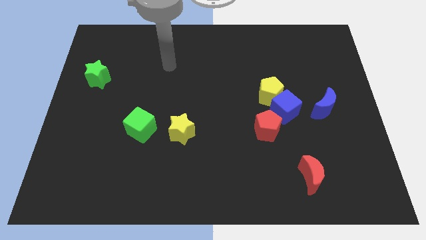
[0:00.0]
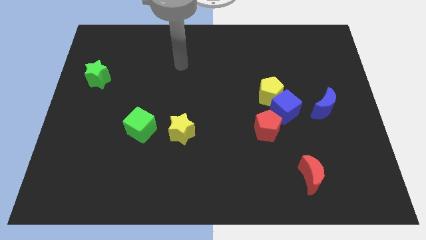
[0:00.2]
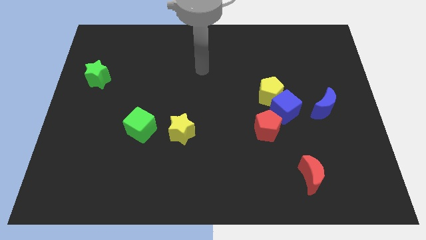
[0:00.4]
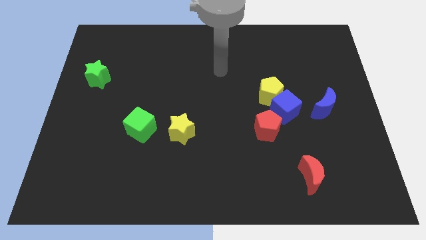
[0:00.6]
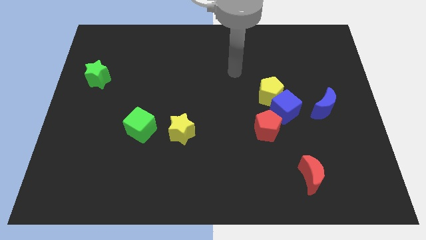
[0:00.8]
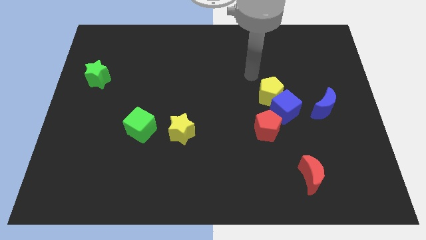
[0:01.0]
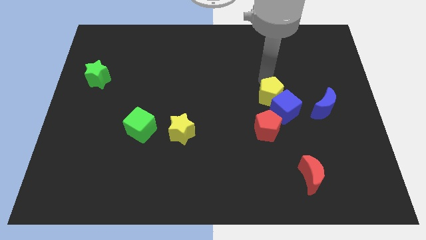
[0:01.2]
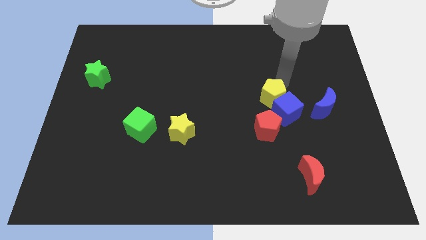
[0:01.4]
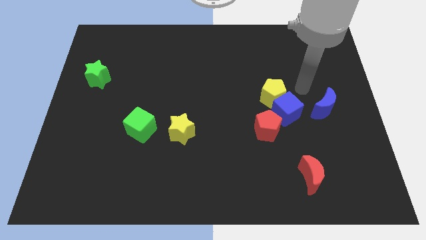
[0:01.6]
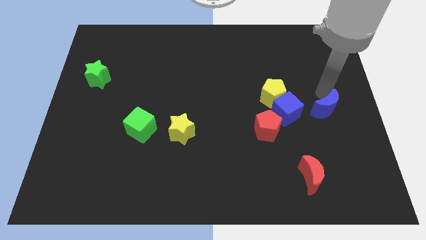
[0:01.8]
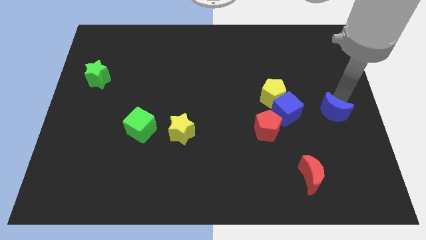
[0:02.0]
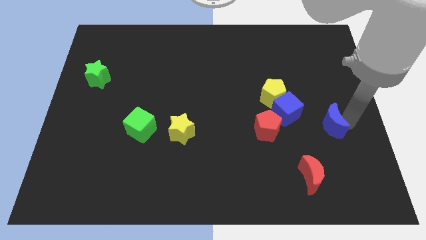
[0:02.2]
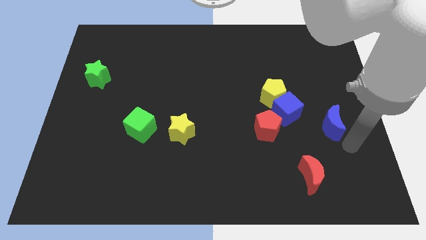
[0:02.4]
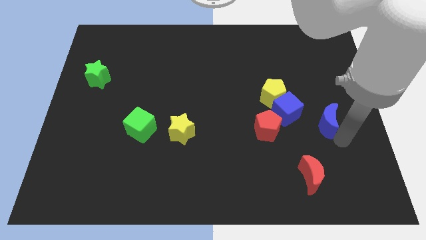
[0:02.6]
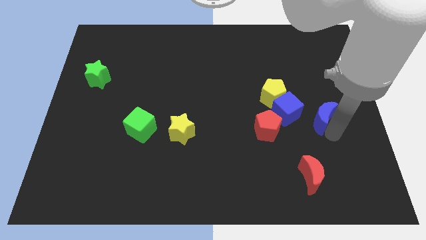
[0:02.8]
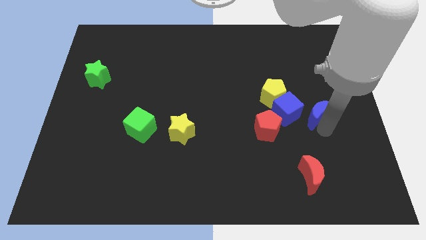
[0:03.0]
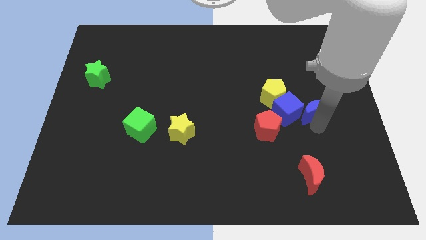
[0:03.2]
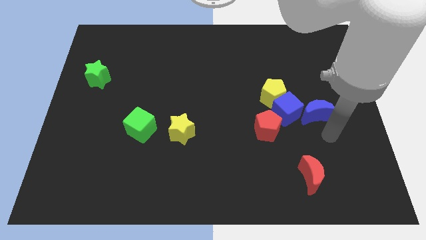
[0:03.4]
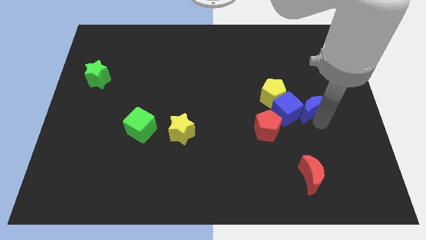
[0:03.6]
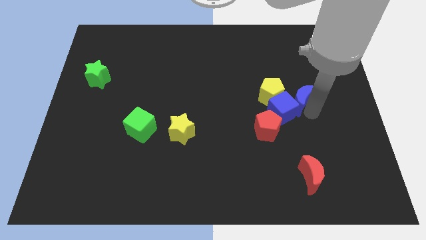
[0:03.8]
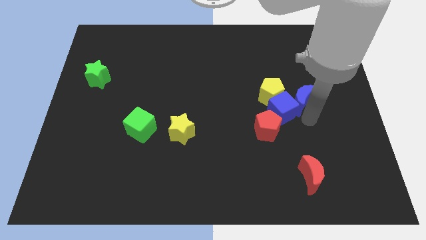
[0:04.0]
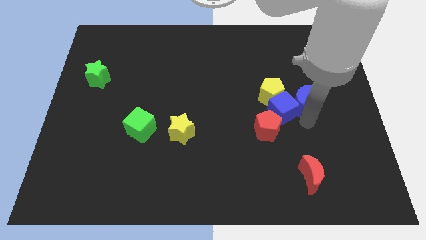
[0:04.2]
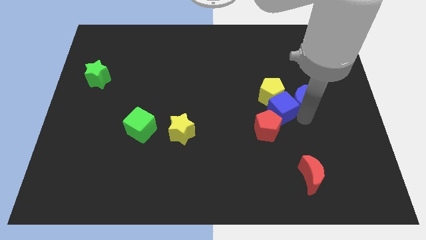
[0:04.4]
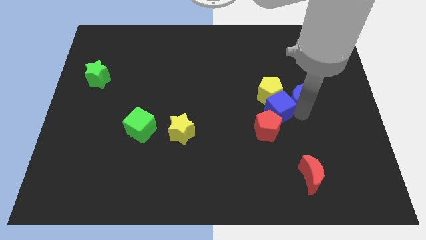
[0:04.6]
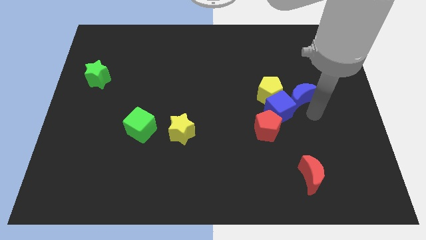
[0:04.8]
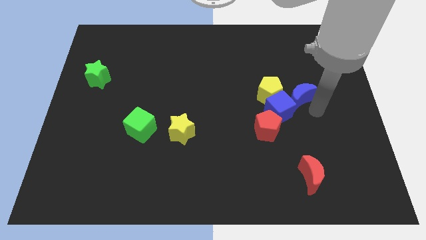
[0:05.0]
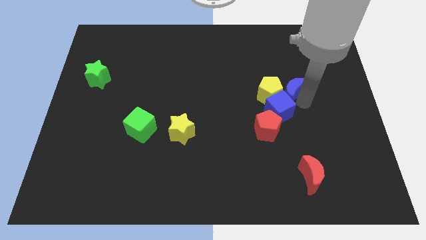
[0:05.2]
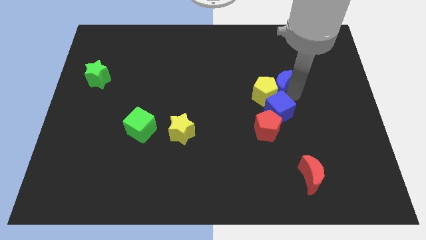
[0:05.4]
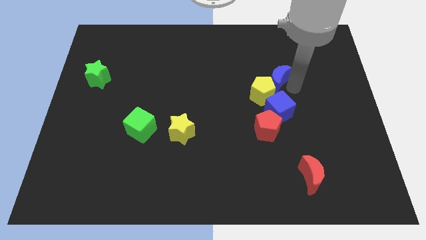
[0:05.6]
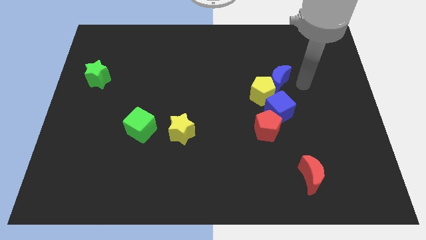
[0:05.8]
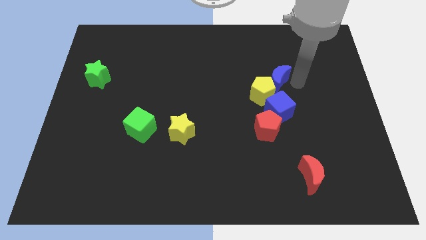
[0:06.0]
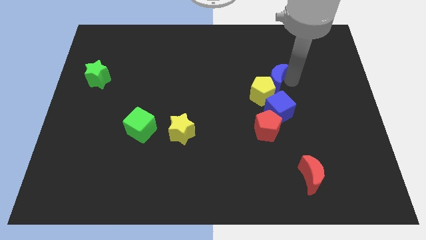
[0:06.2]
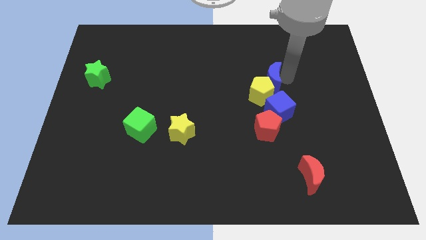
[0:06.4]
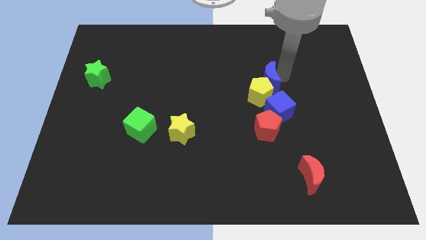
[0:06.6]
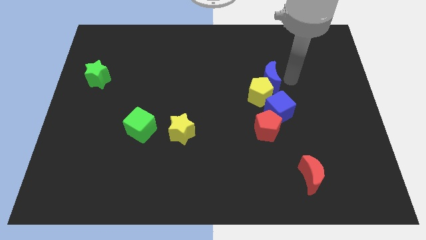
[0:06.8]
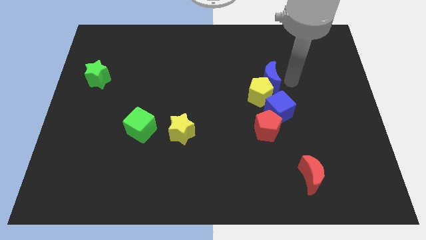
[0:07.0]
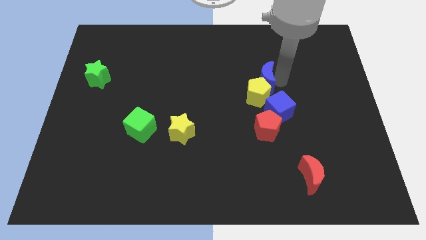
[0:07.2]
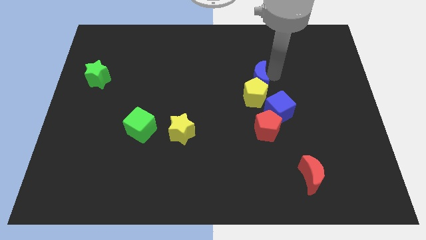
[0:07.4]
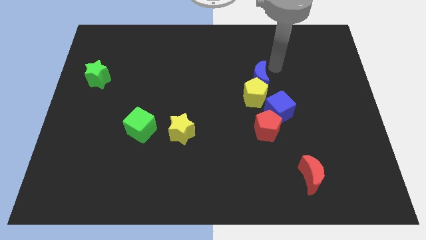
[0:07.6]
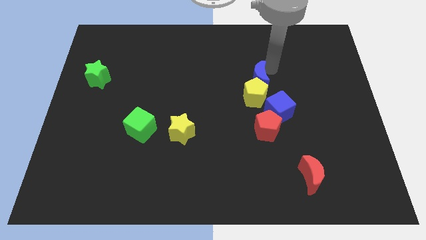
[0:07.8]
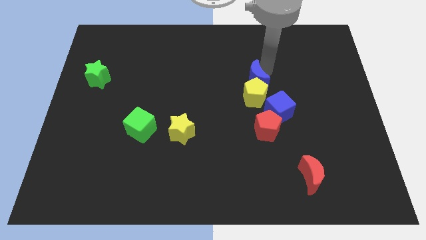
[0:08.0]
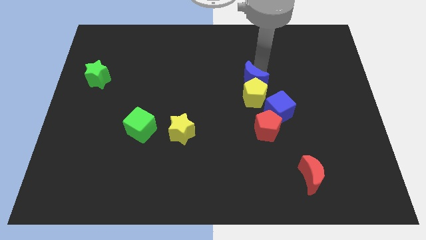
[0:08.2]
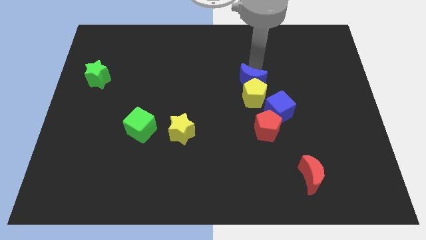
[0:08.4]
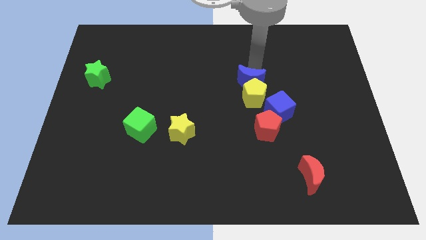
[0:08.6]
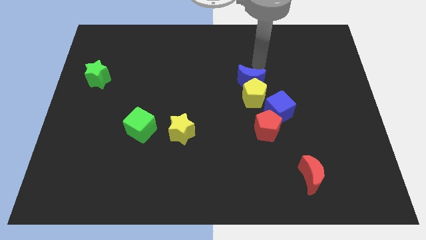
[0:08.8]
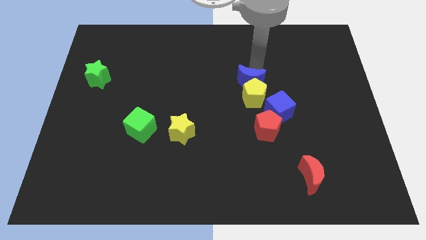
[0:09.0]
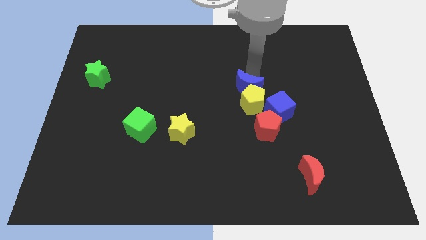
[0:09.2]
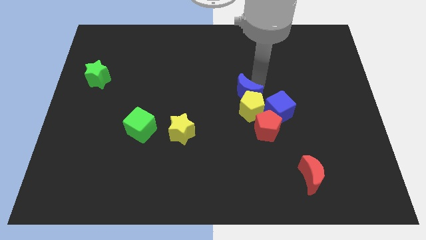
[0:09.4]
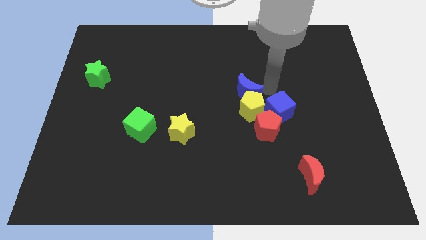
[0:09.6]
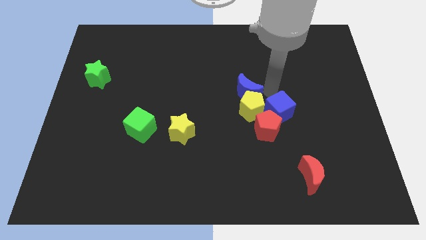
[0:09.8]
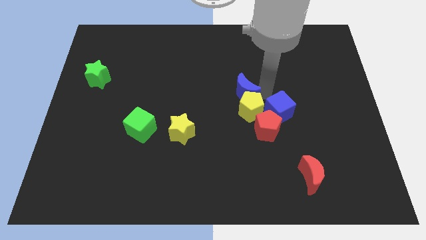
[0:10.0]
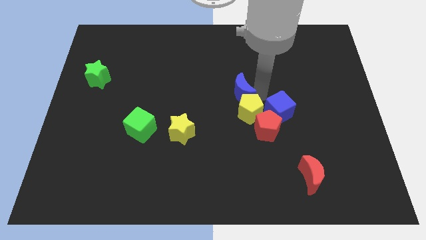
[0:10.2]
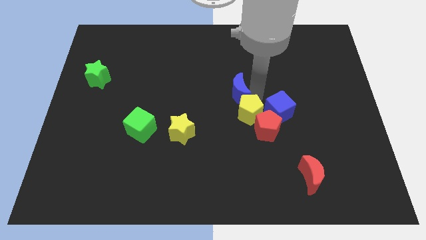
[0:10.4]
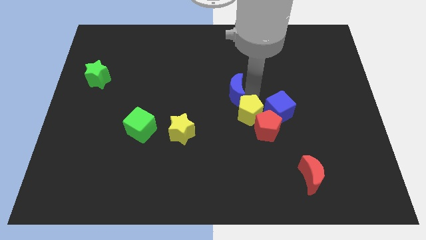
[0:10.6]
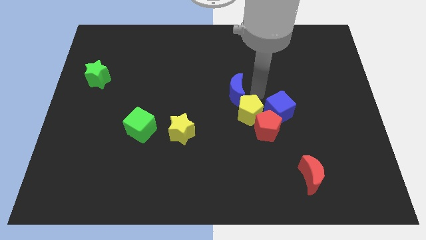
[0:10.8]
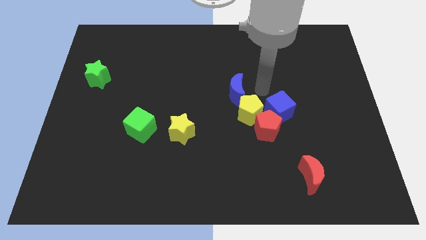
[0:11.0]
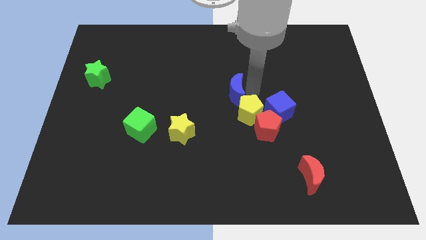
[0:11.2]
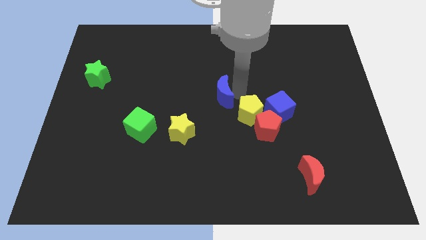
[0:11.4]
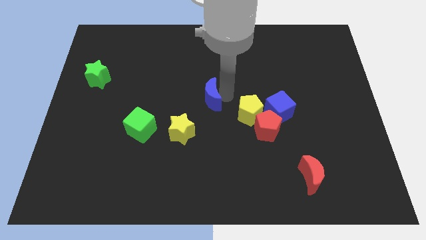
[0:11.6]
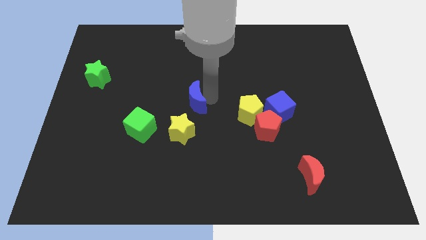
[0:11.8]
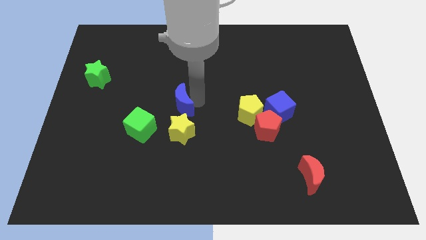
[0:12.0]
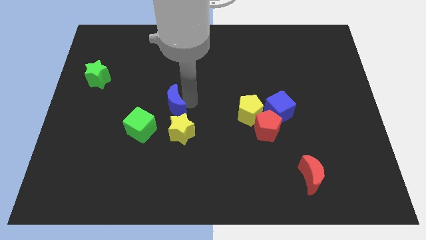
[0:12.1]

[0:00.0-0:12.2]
put the blue moon to the top left side of the yellow star
